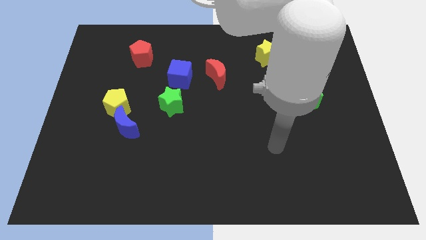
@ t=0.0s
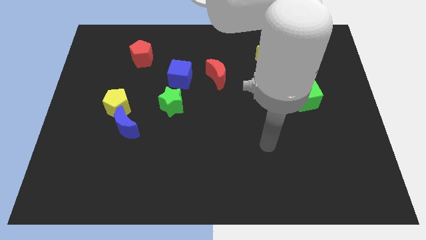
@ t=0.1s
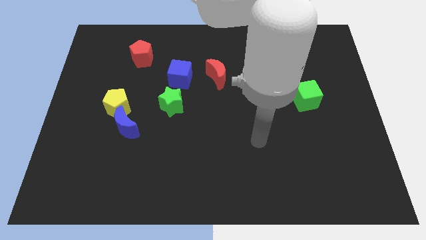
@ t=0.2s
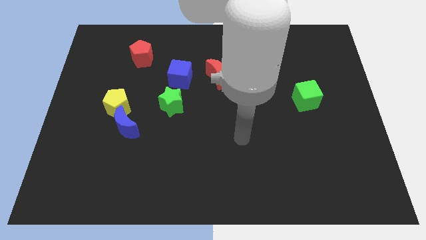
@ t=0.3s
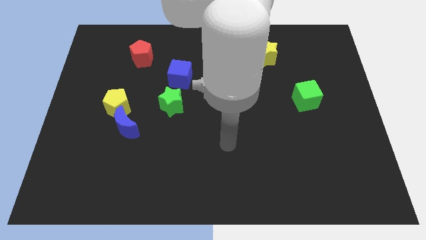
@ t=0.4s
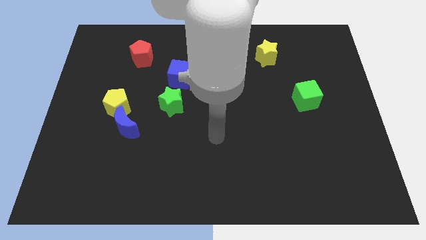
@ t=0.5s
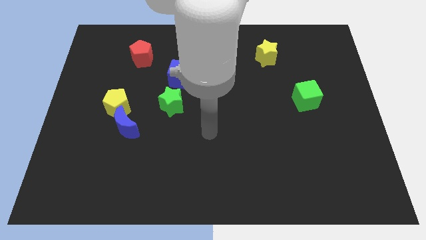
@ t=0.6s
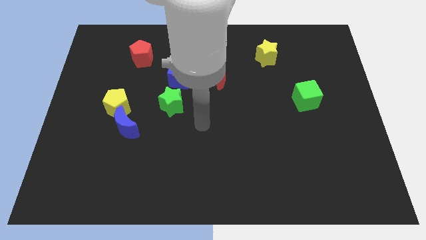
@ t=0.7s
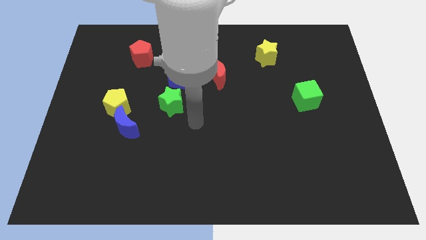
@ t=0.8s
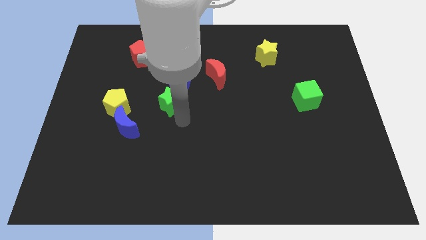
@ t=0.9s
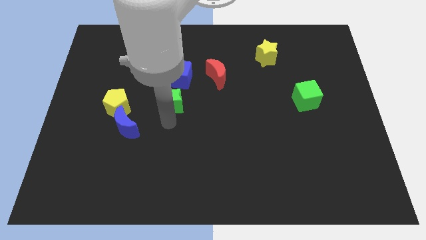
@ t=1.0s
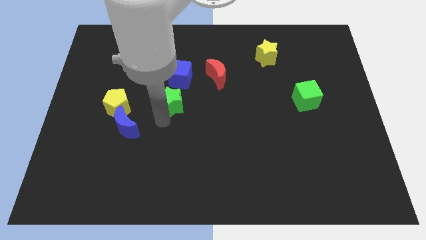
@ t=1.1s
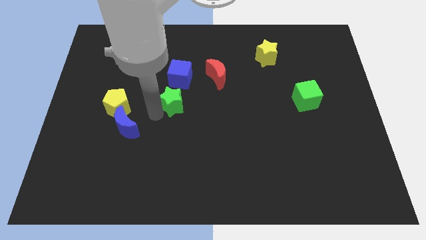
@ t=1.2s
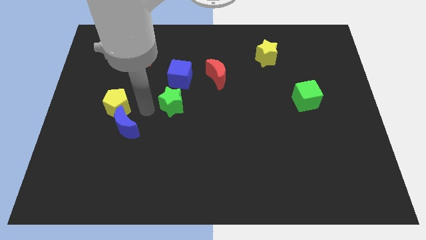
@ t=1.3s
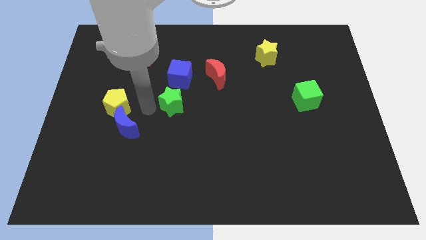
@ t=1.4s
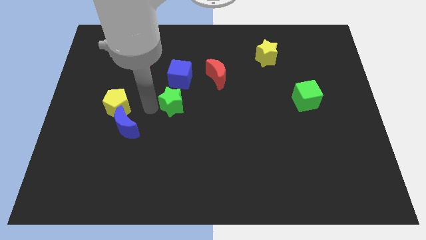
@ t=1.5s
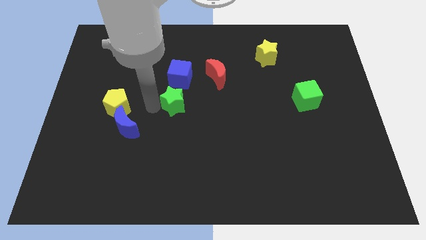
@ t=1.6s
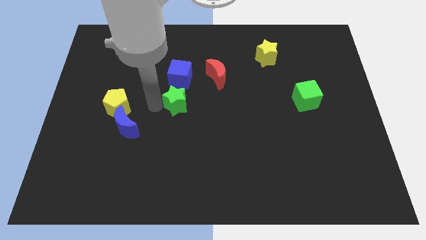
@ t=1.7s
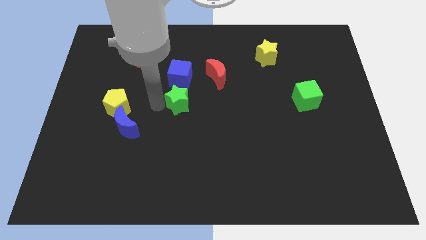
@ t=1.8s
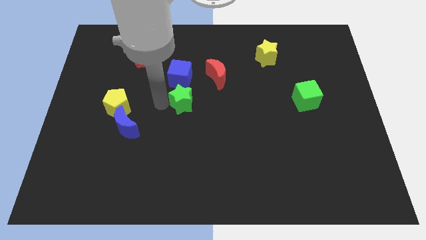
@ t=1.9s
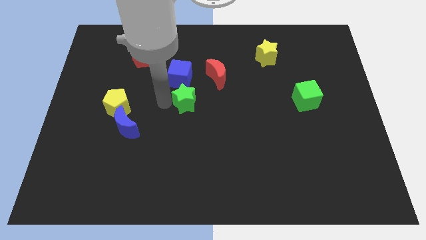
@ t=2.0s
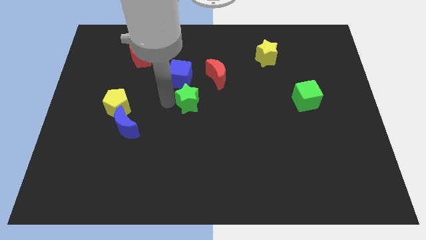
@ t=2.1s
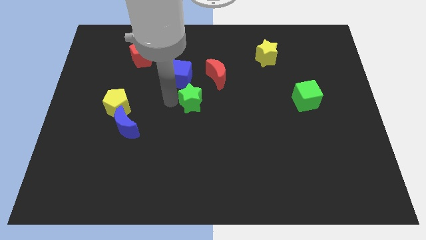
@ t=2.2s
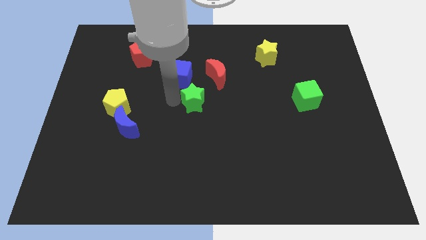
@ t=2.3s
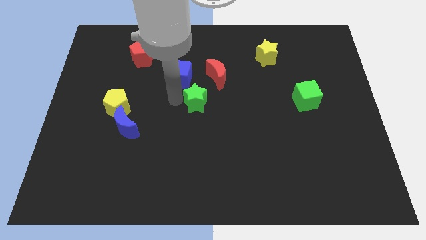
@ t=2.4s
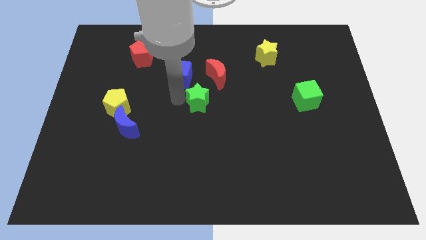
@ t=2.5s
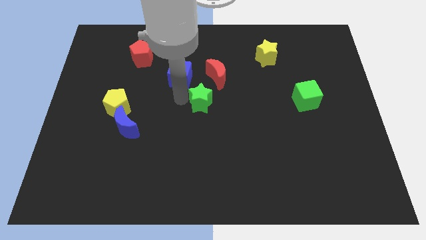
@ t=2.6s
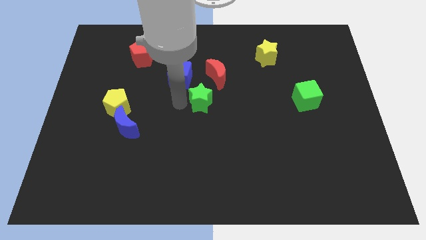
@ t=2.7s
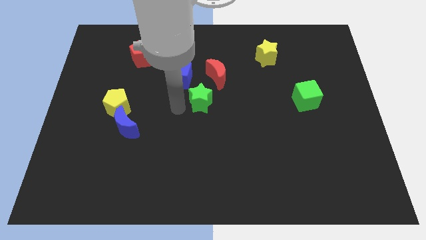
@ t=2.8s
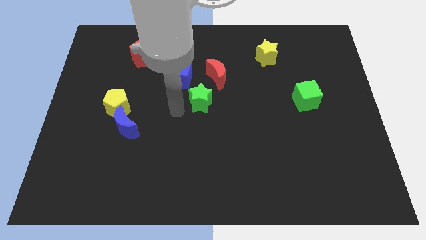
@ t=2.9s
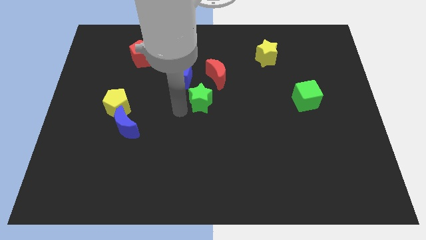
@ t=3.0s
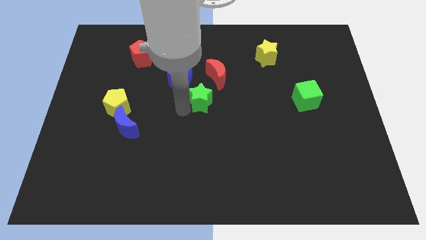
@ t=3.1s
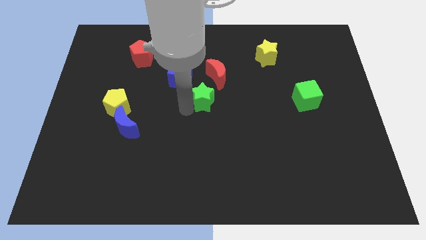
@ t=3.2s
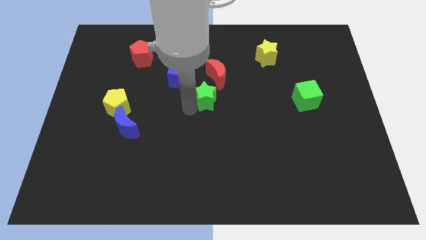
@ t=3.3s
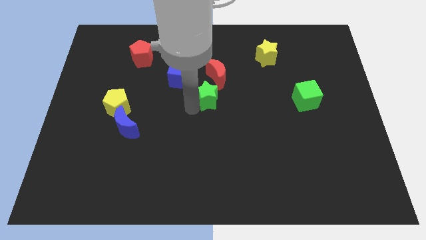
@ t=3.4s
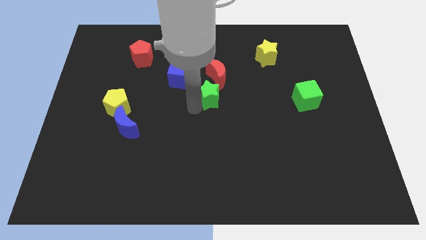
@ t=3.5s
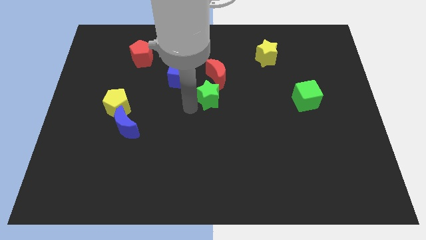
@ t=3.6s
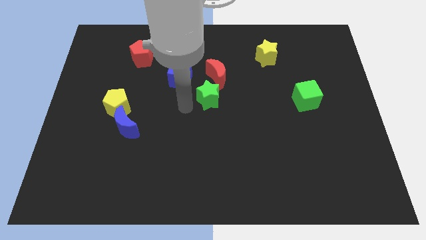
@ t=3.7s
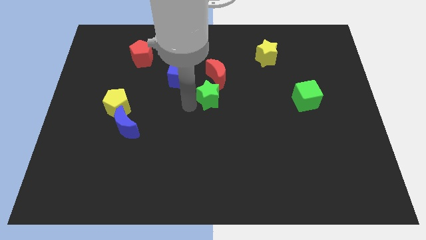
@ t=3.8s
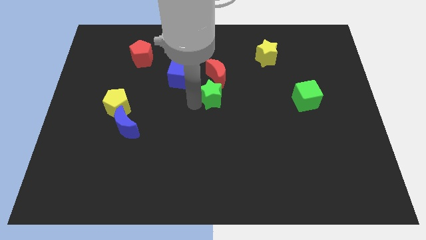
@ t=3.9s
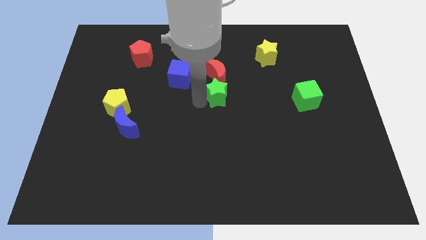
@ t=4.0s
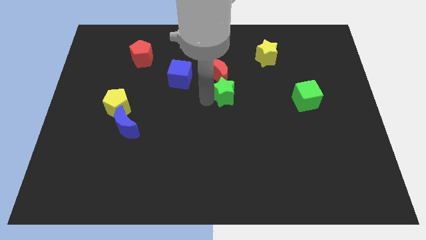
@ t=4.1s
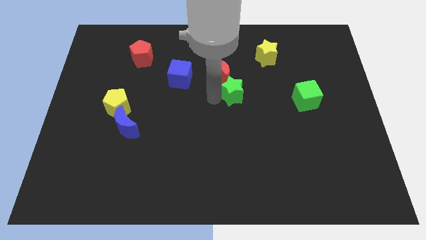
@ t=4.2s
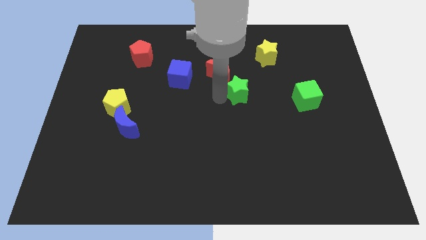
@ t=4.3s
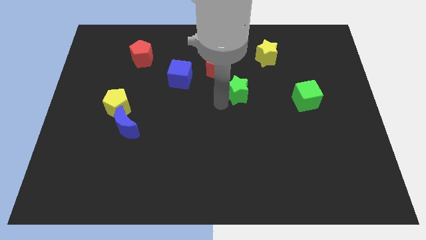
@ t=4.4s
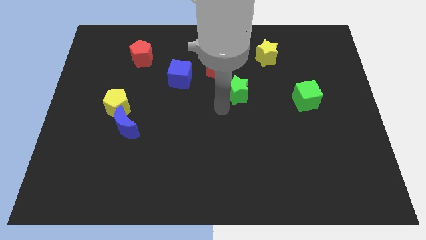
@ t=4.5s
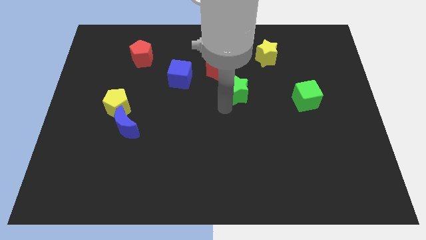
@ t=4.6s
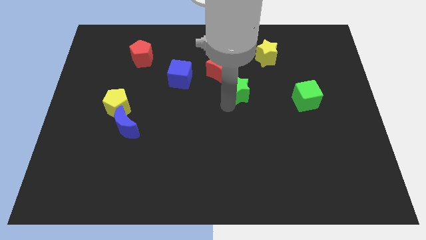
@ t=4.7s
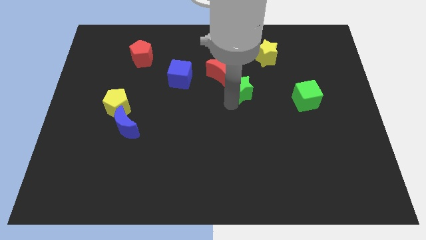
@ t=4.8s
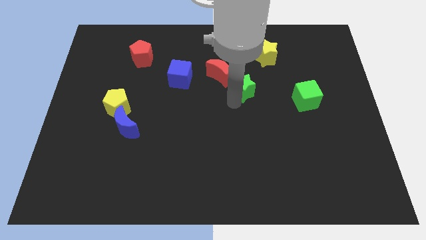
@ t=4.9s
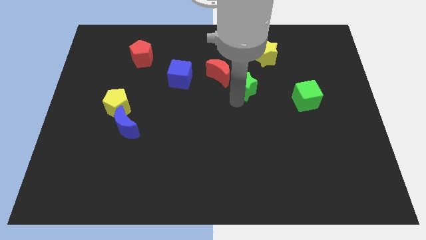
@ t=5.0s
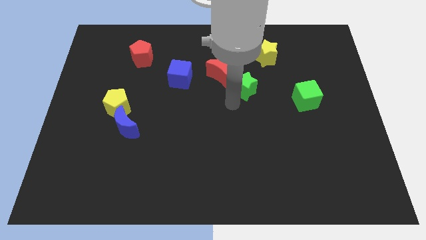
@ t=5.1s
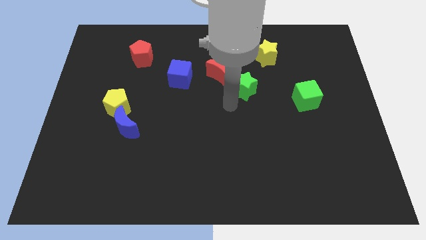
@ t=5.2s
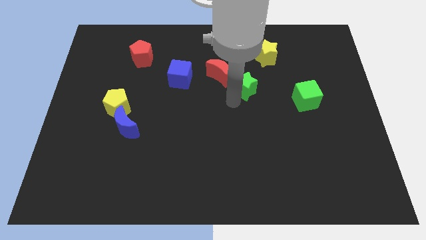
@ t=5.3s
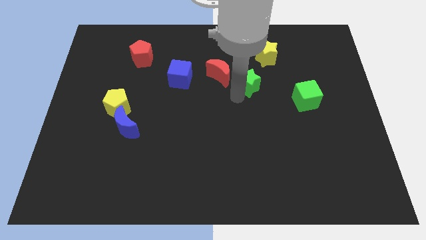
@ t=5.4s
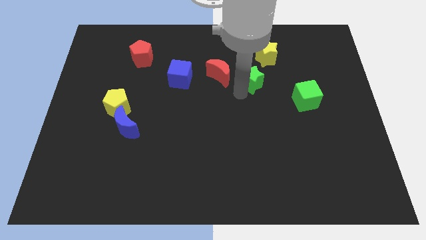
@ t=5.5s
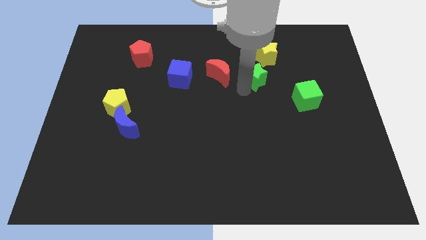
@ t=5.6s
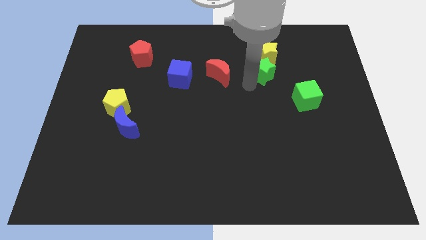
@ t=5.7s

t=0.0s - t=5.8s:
move the green star to the yellow star

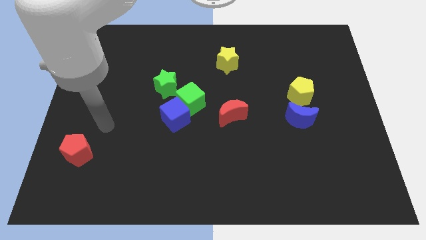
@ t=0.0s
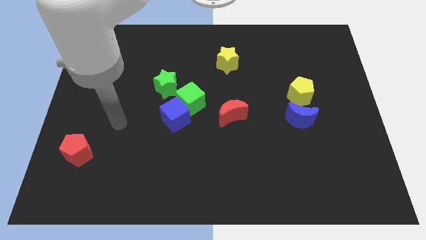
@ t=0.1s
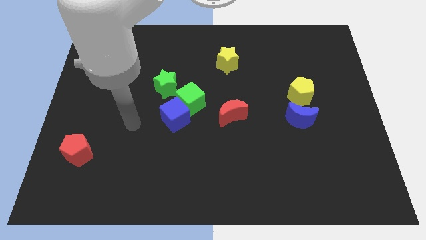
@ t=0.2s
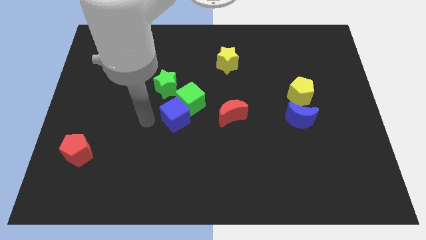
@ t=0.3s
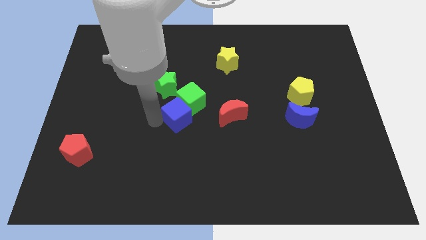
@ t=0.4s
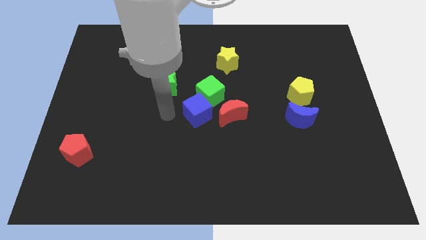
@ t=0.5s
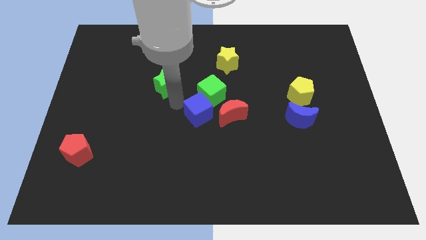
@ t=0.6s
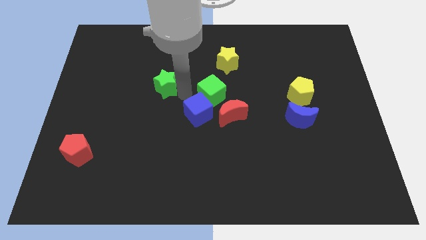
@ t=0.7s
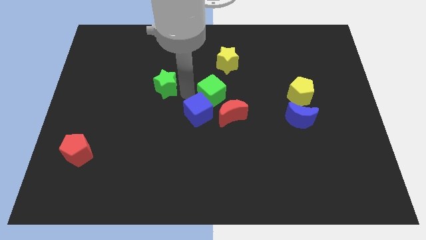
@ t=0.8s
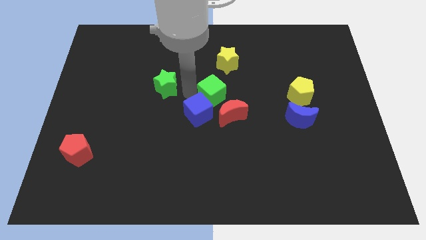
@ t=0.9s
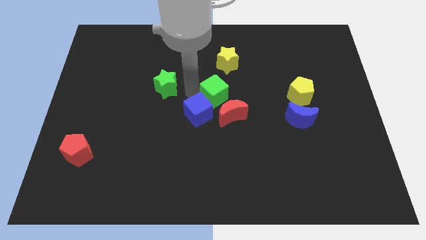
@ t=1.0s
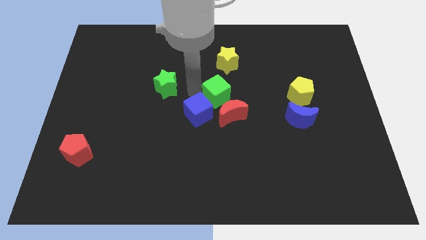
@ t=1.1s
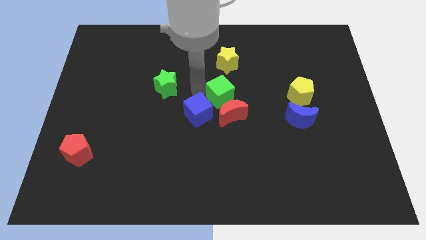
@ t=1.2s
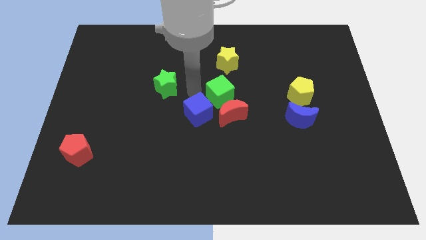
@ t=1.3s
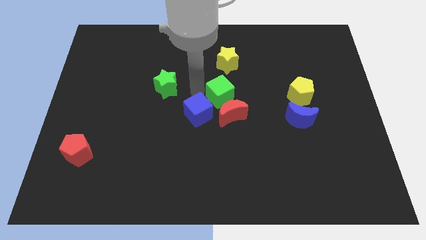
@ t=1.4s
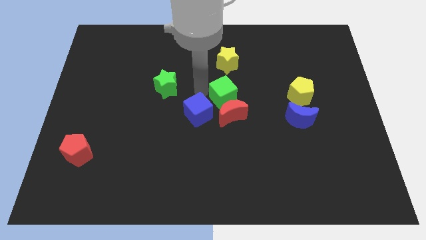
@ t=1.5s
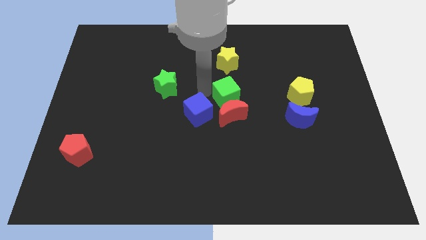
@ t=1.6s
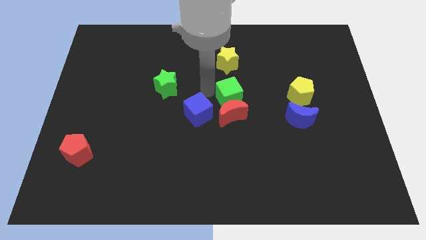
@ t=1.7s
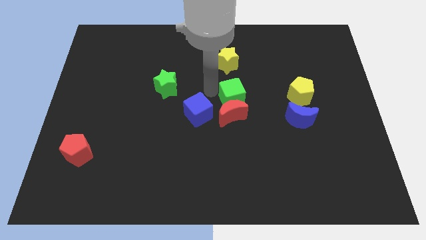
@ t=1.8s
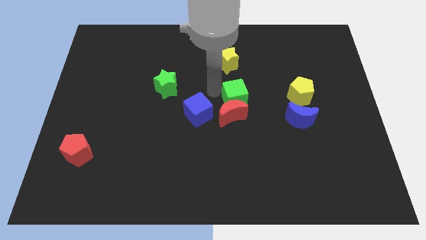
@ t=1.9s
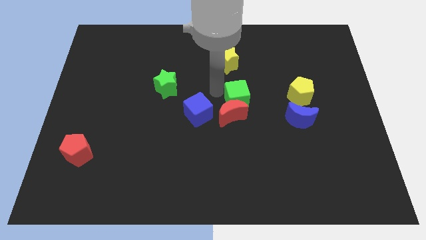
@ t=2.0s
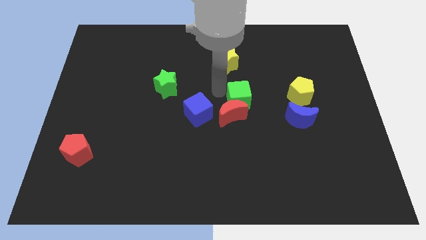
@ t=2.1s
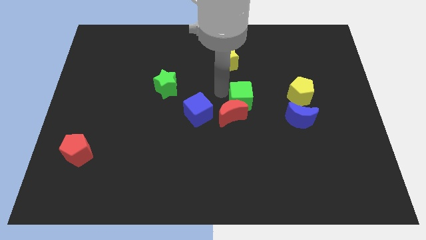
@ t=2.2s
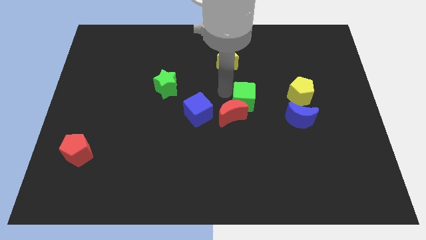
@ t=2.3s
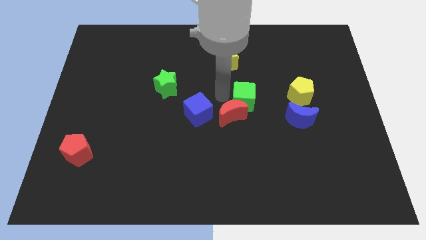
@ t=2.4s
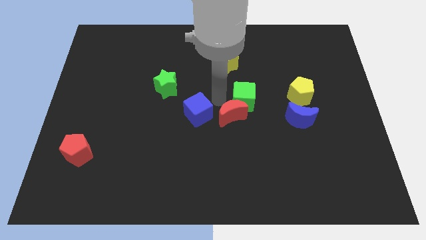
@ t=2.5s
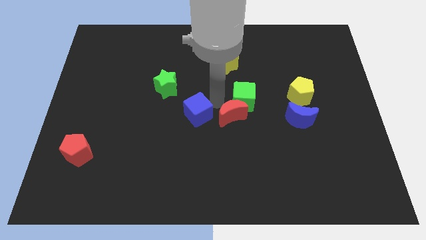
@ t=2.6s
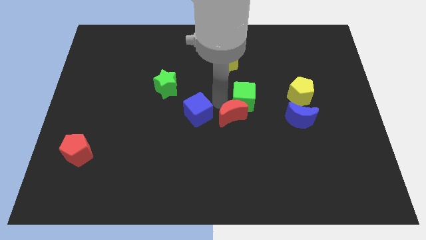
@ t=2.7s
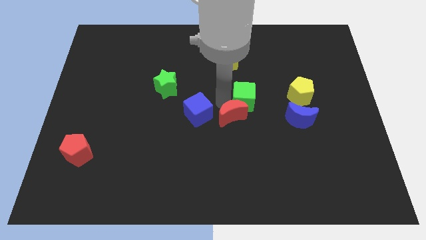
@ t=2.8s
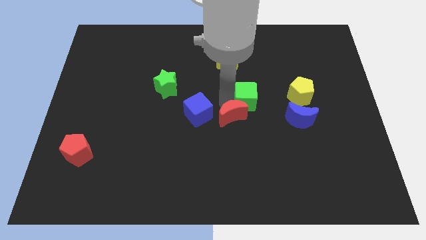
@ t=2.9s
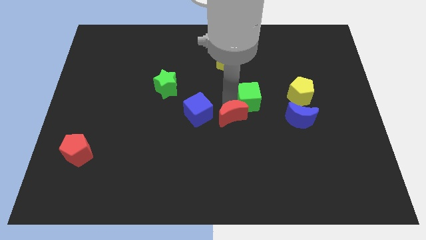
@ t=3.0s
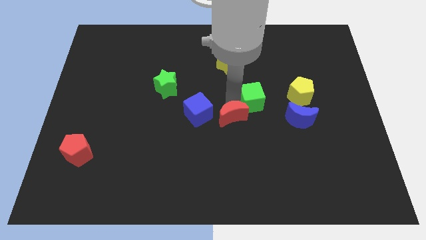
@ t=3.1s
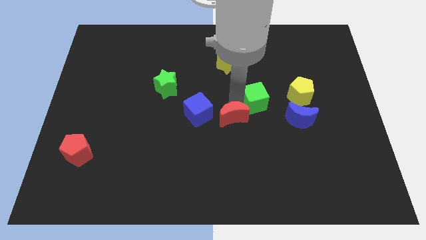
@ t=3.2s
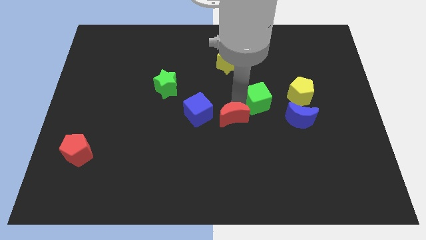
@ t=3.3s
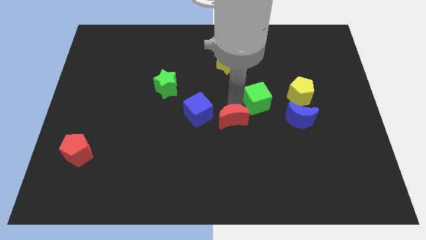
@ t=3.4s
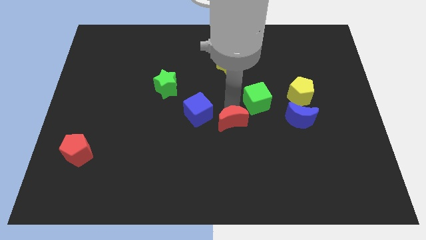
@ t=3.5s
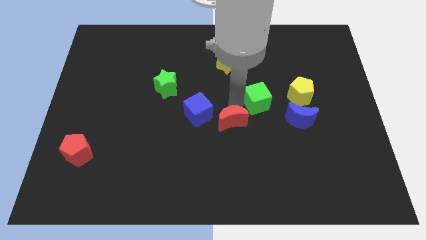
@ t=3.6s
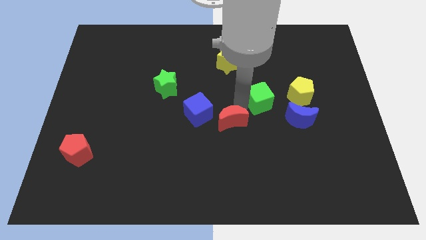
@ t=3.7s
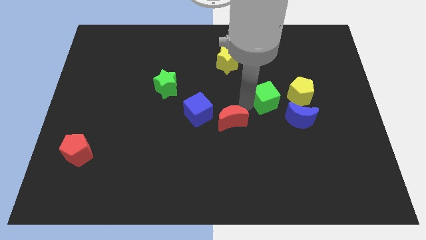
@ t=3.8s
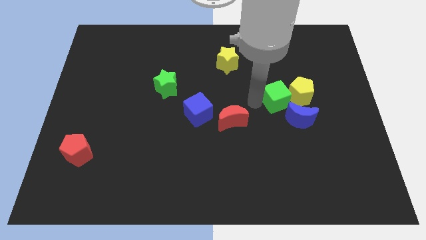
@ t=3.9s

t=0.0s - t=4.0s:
slide the green cube next to the yellow pentagon
